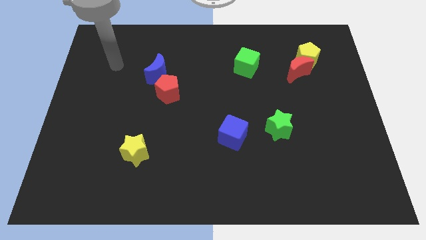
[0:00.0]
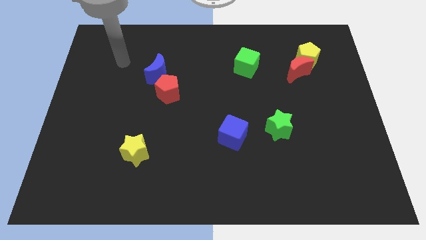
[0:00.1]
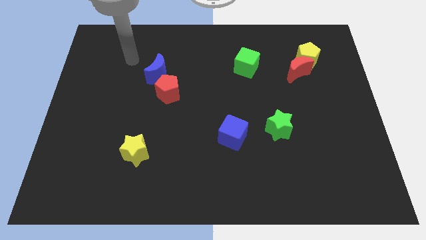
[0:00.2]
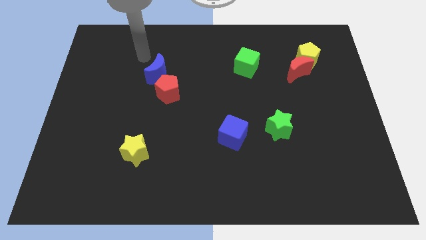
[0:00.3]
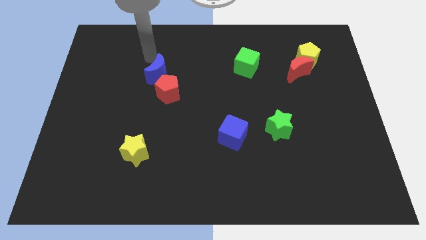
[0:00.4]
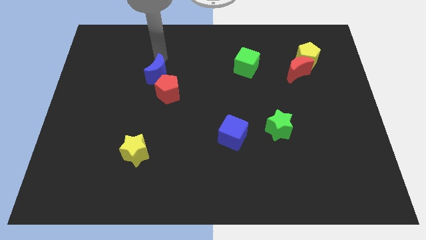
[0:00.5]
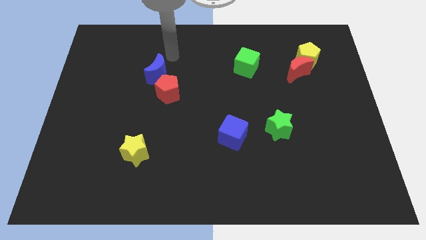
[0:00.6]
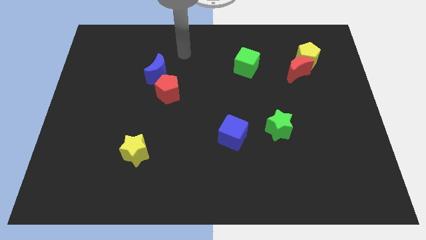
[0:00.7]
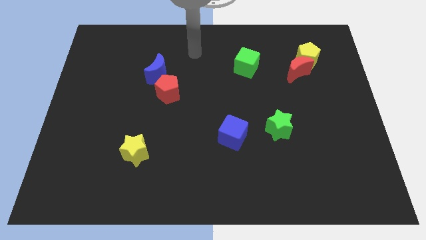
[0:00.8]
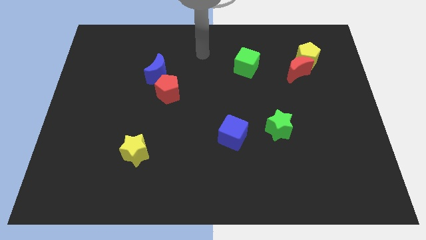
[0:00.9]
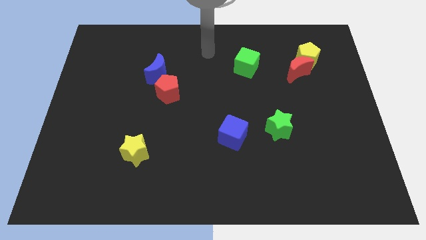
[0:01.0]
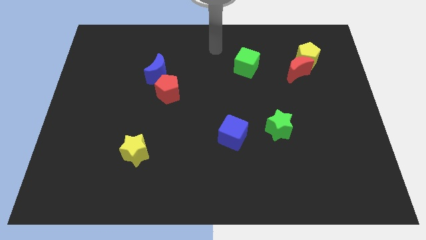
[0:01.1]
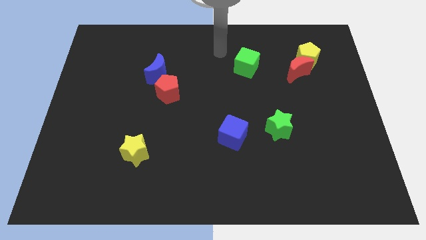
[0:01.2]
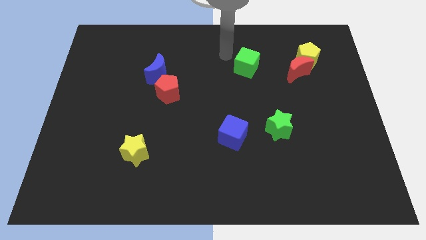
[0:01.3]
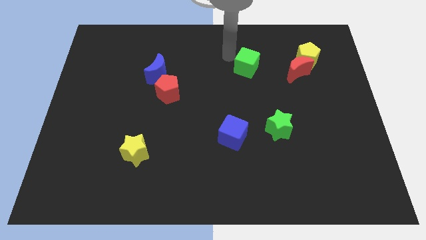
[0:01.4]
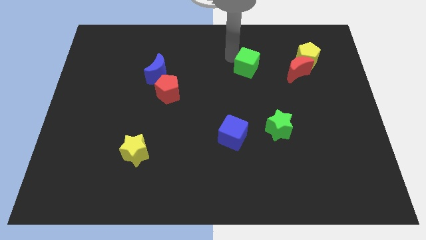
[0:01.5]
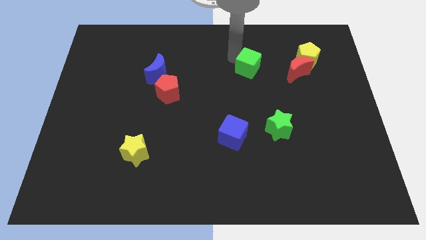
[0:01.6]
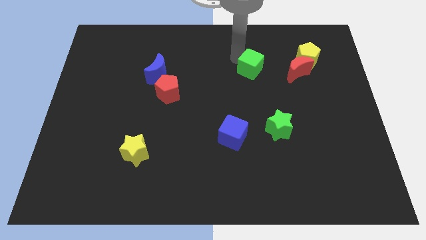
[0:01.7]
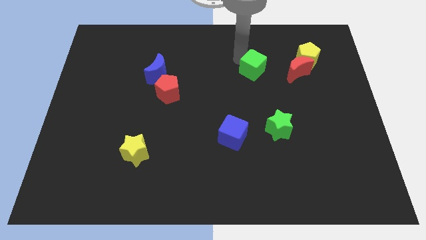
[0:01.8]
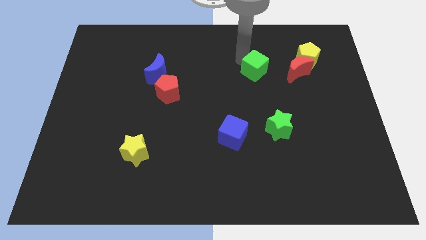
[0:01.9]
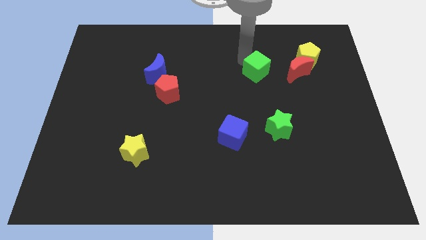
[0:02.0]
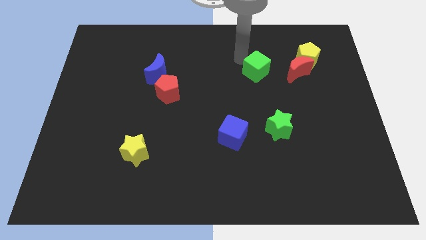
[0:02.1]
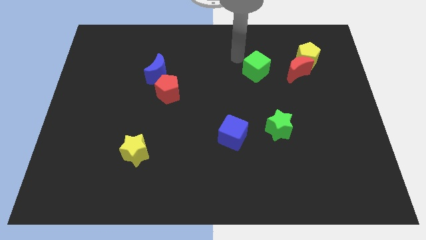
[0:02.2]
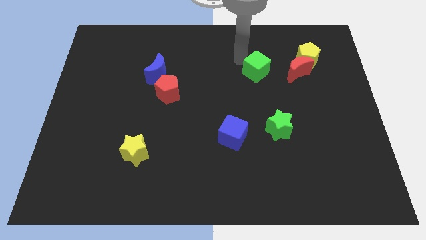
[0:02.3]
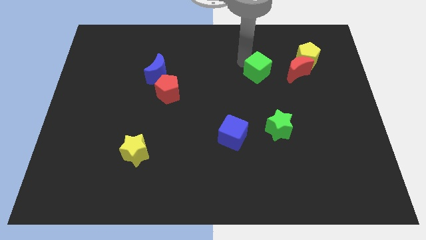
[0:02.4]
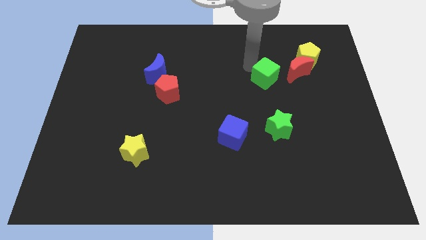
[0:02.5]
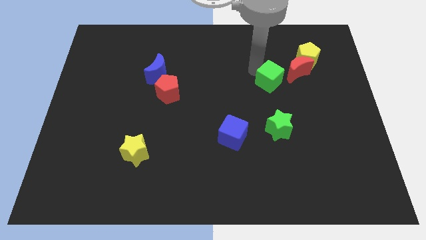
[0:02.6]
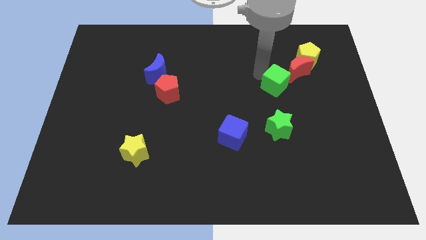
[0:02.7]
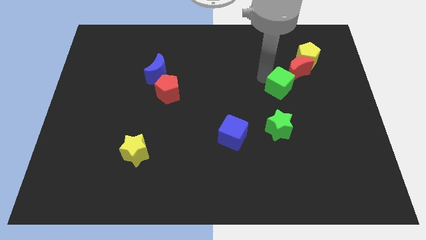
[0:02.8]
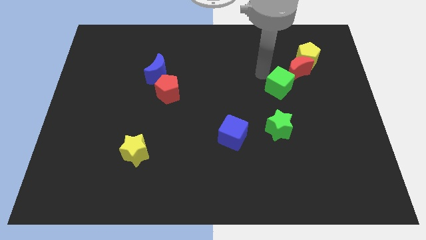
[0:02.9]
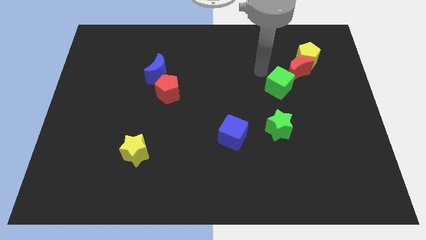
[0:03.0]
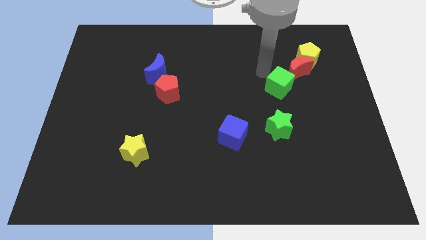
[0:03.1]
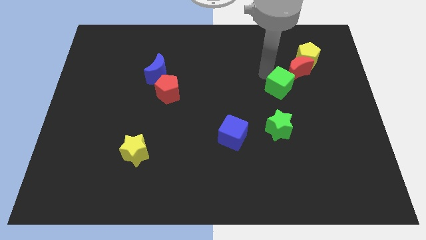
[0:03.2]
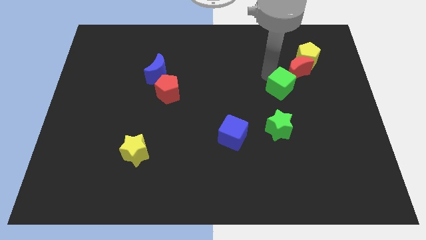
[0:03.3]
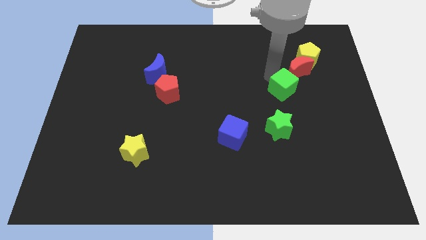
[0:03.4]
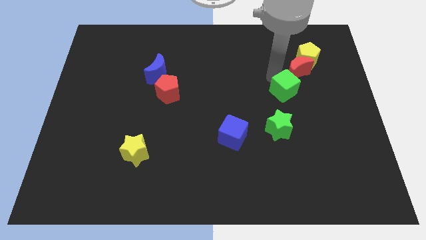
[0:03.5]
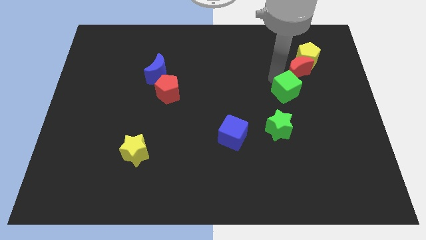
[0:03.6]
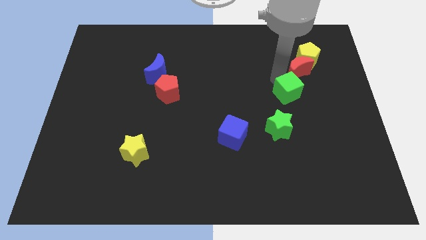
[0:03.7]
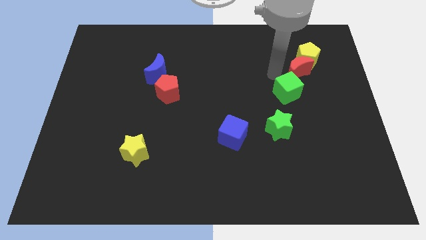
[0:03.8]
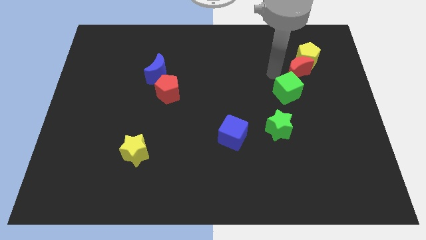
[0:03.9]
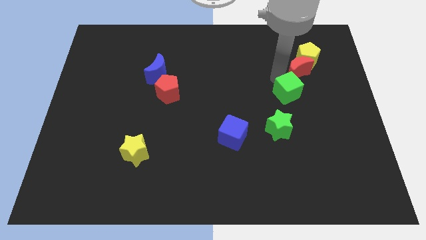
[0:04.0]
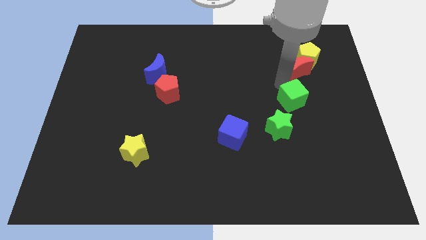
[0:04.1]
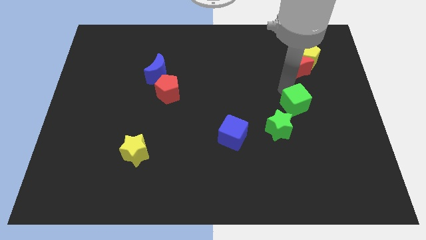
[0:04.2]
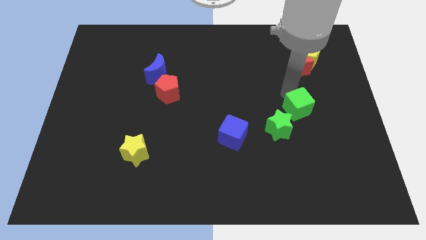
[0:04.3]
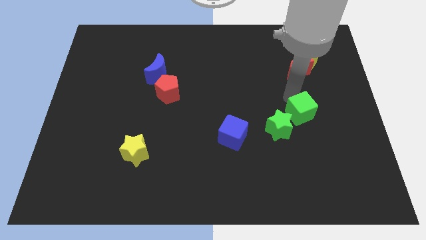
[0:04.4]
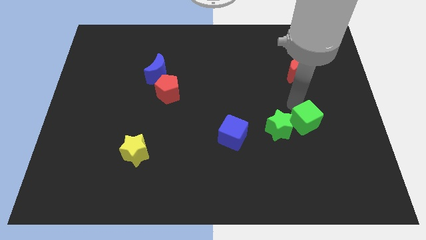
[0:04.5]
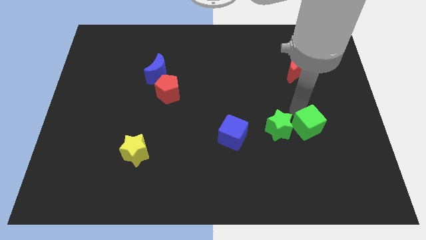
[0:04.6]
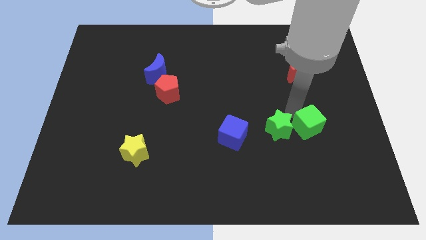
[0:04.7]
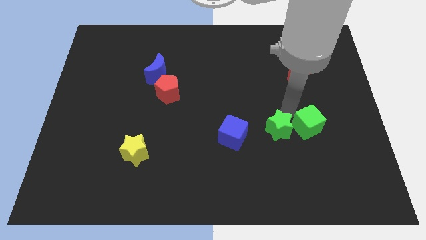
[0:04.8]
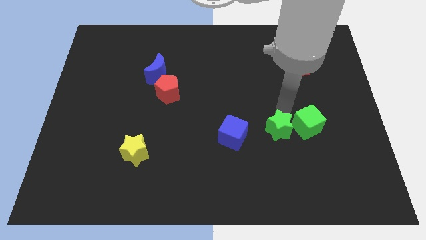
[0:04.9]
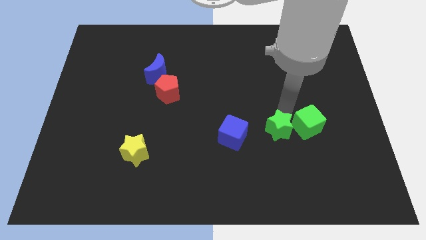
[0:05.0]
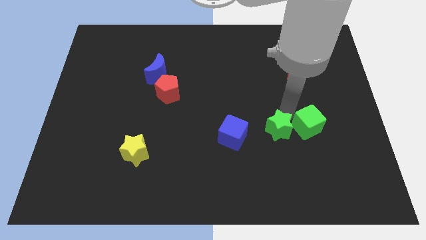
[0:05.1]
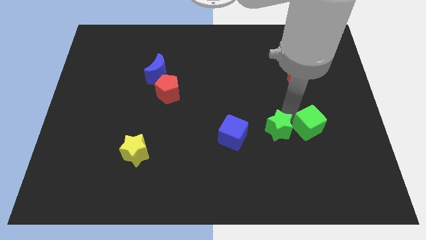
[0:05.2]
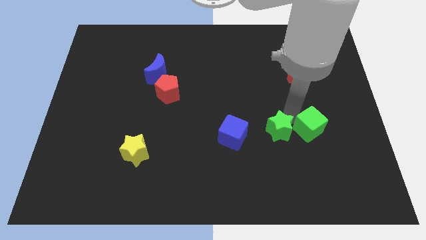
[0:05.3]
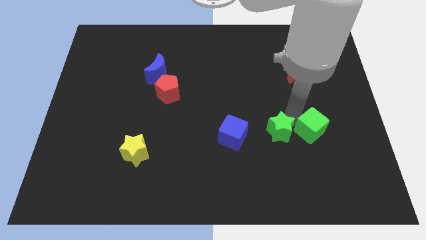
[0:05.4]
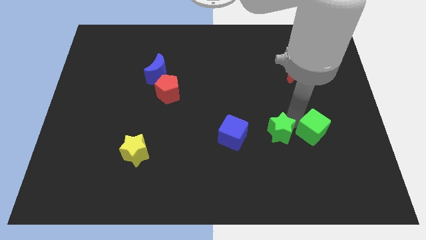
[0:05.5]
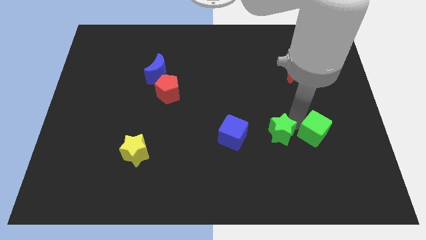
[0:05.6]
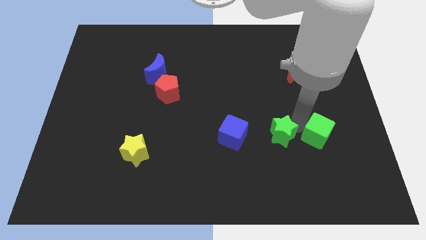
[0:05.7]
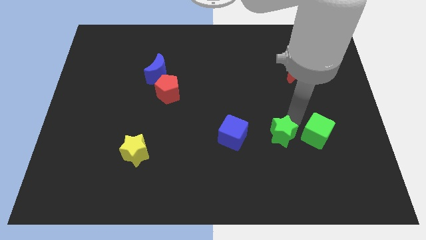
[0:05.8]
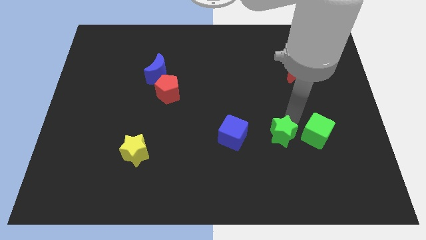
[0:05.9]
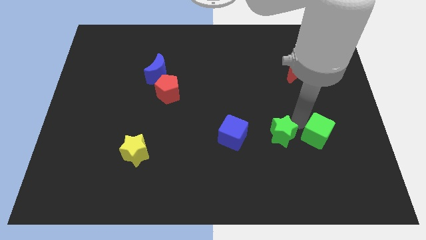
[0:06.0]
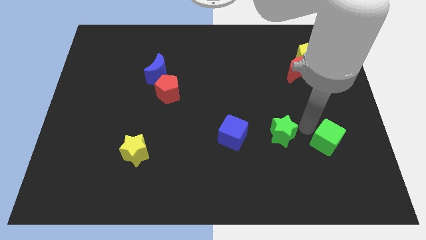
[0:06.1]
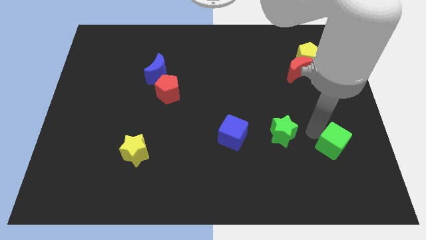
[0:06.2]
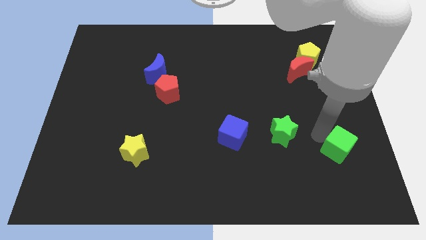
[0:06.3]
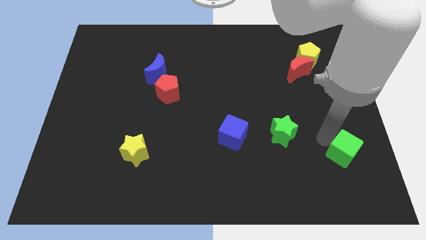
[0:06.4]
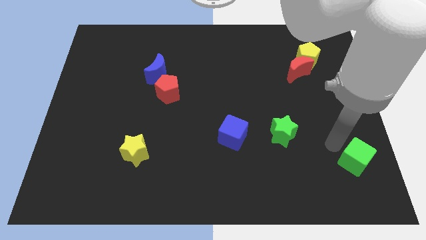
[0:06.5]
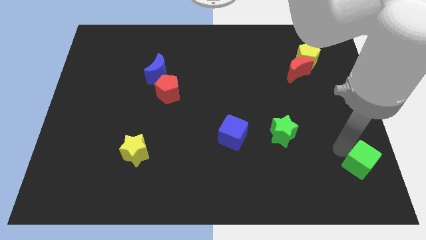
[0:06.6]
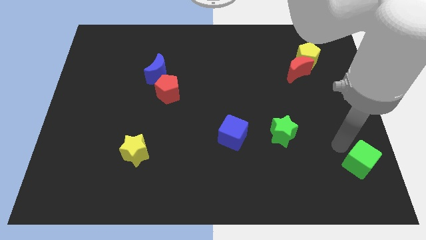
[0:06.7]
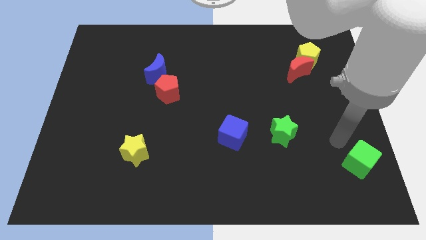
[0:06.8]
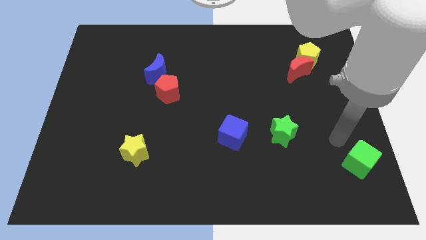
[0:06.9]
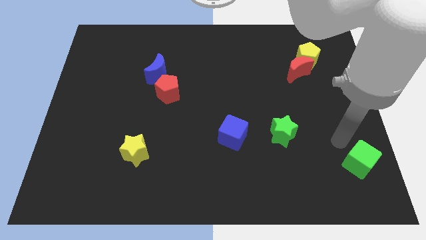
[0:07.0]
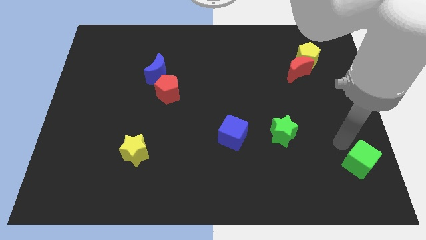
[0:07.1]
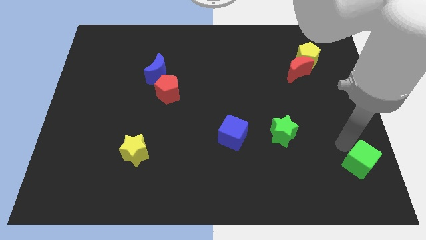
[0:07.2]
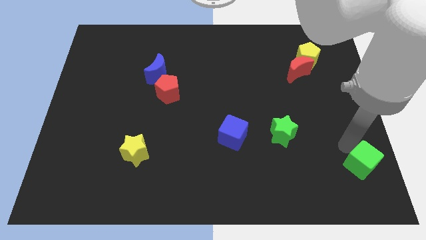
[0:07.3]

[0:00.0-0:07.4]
put the green cube to the bottom right of the board
